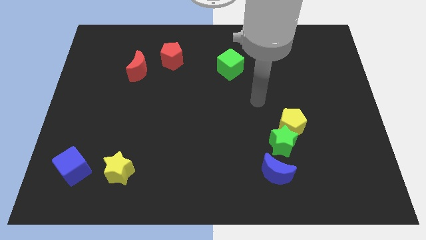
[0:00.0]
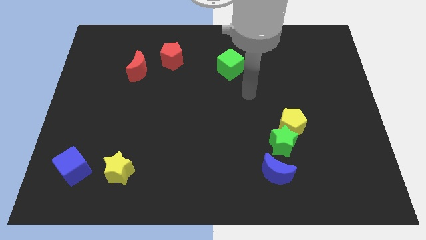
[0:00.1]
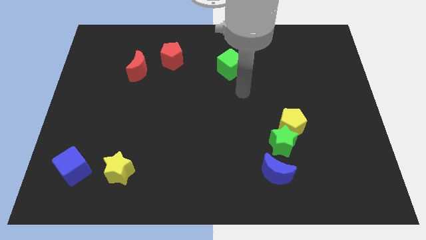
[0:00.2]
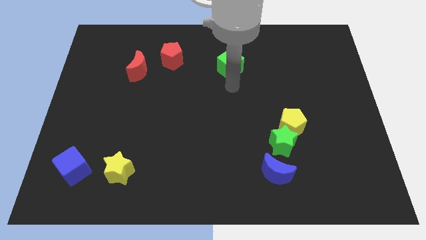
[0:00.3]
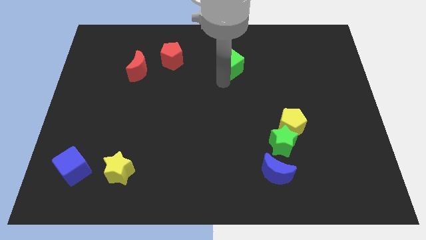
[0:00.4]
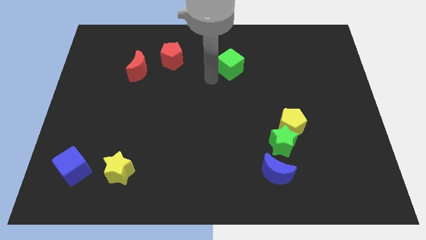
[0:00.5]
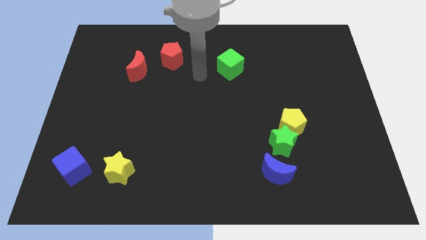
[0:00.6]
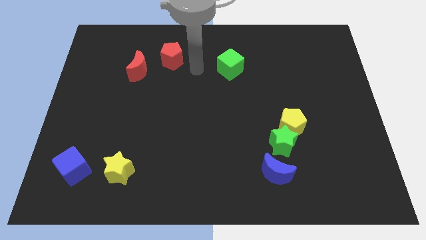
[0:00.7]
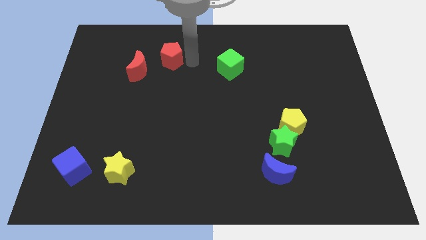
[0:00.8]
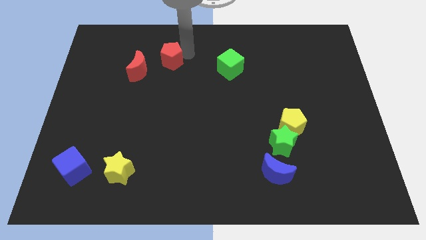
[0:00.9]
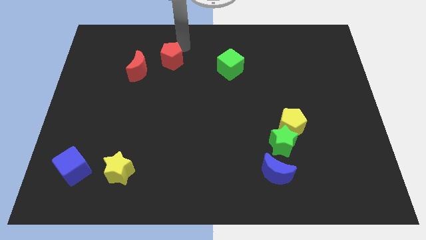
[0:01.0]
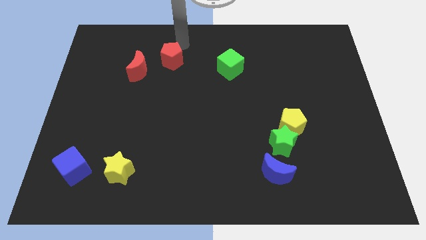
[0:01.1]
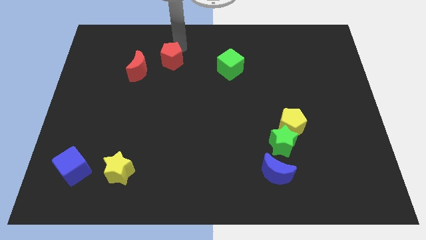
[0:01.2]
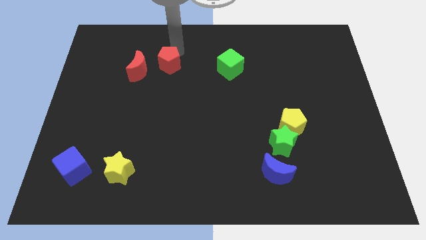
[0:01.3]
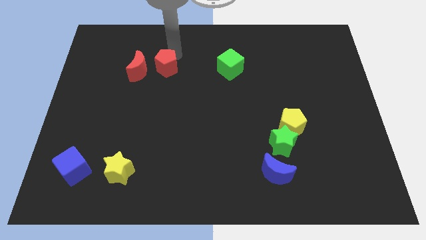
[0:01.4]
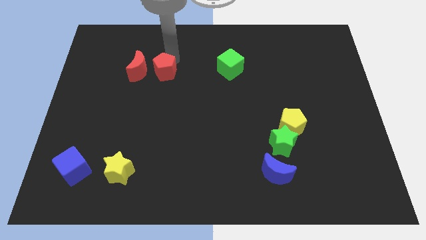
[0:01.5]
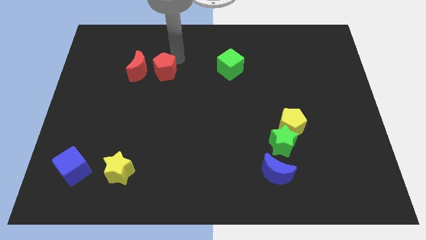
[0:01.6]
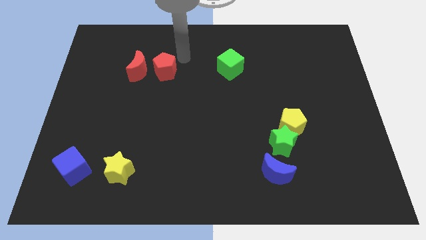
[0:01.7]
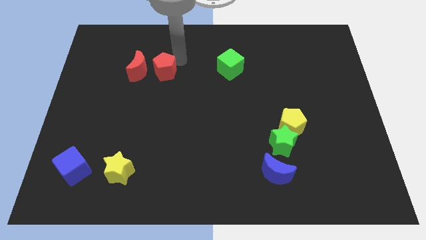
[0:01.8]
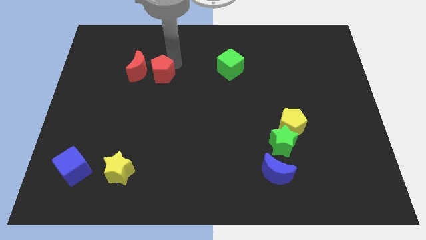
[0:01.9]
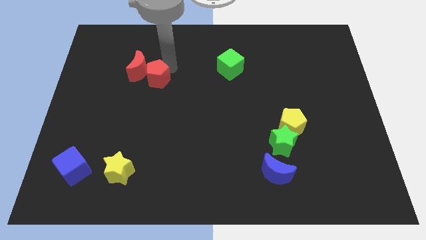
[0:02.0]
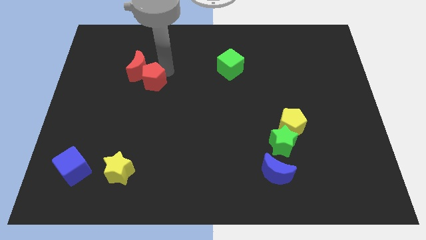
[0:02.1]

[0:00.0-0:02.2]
slightly slide the red pentagon downwards and then to the left

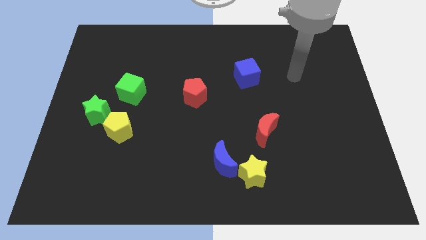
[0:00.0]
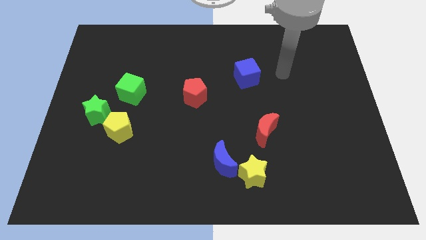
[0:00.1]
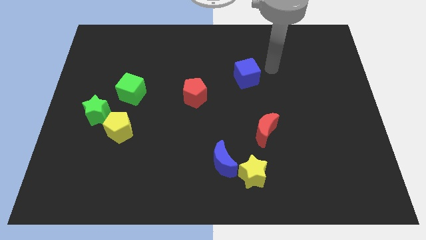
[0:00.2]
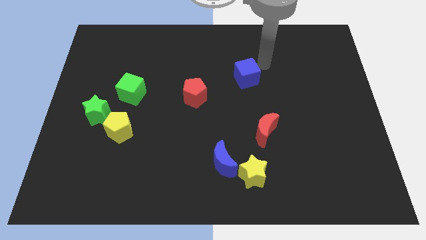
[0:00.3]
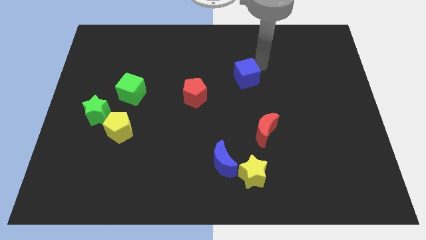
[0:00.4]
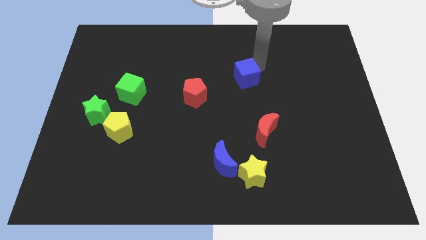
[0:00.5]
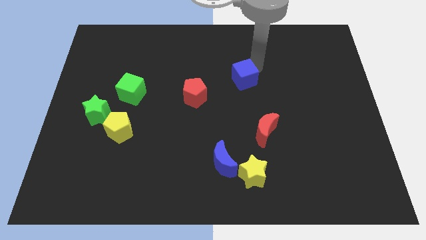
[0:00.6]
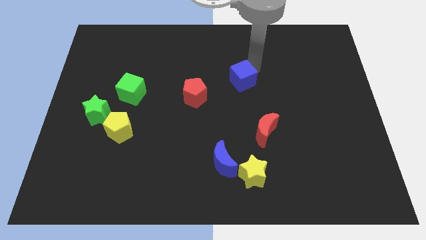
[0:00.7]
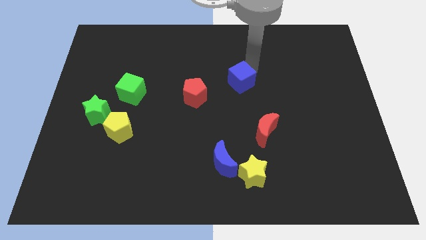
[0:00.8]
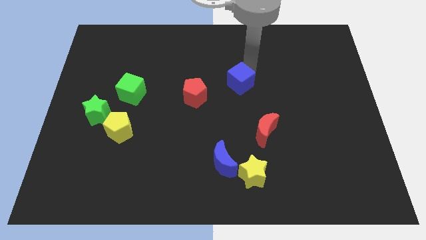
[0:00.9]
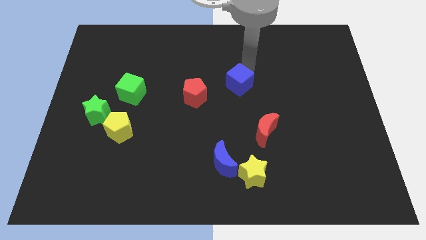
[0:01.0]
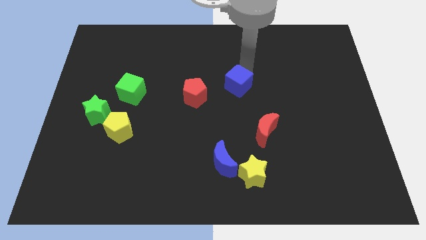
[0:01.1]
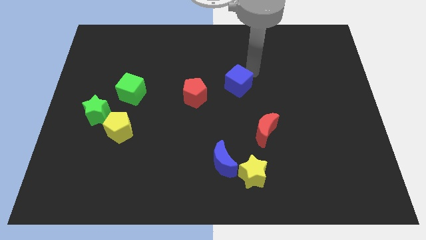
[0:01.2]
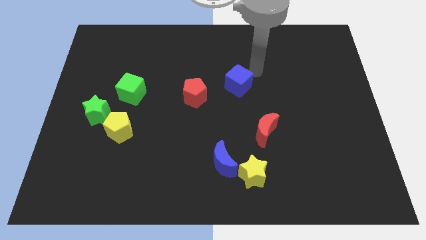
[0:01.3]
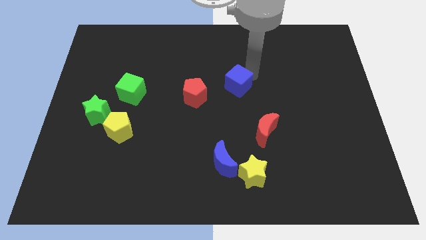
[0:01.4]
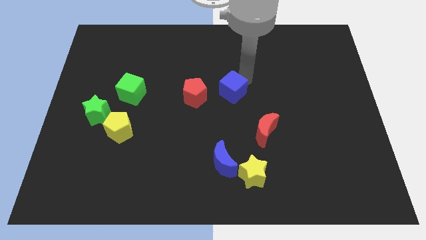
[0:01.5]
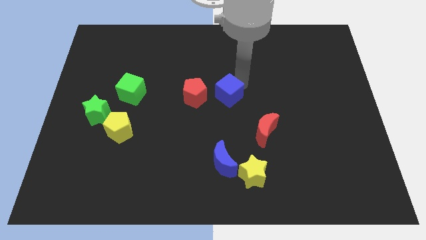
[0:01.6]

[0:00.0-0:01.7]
move the blue cube down and then left somewhat

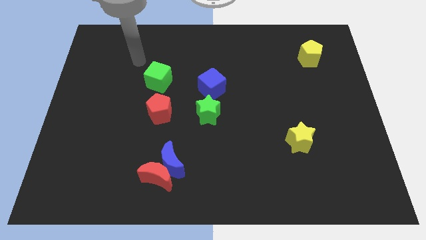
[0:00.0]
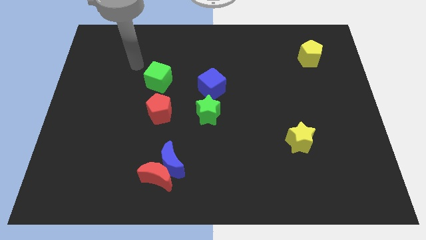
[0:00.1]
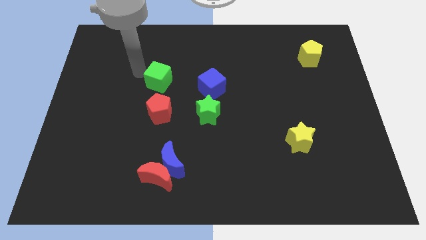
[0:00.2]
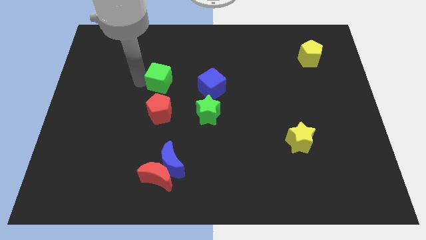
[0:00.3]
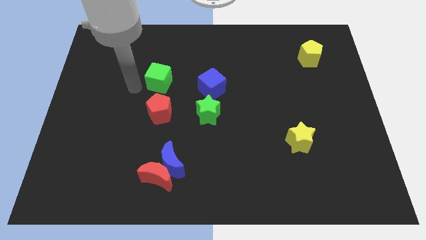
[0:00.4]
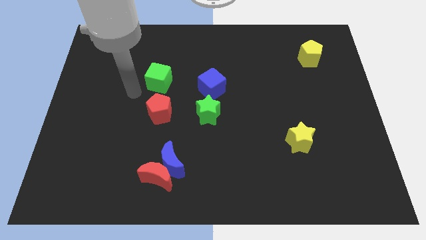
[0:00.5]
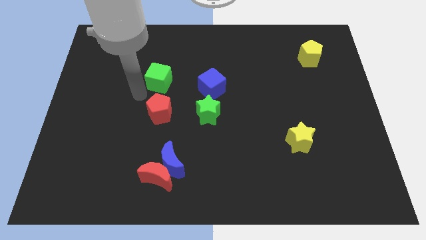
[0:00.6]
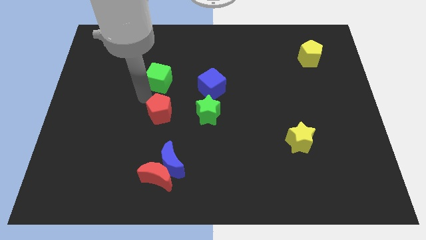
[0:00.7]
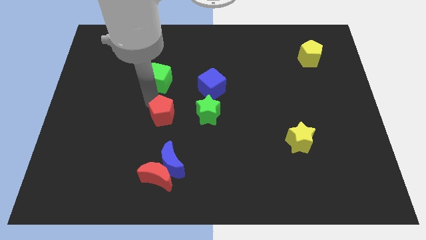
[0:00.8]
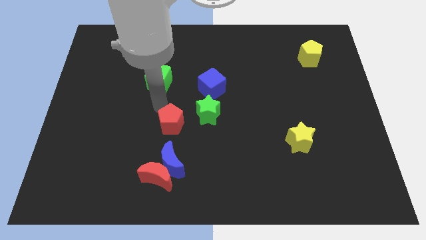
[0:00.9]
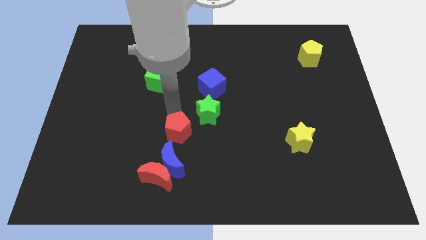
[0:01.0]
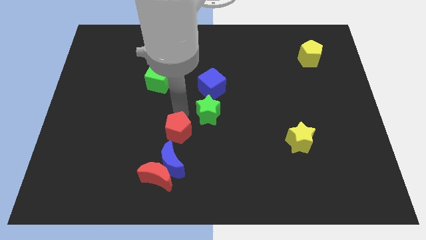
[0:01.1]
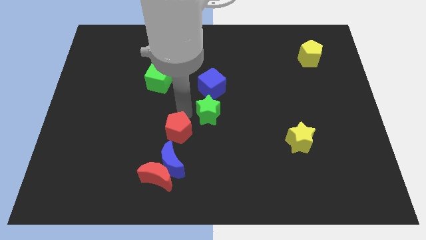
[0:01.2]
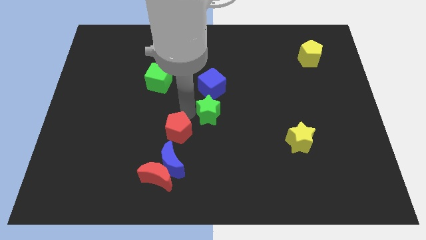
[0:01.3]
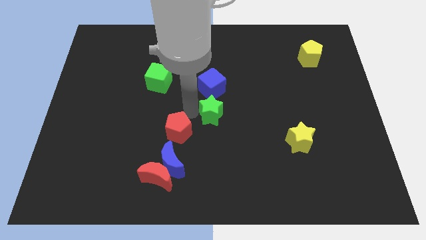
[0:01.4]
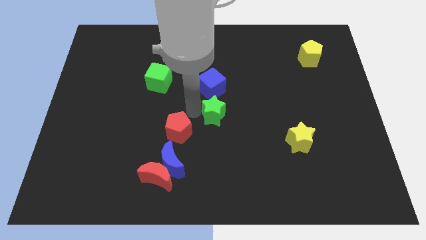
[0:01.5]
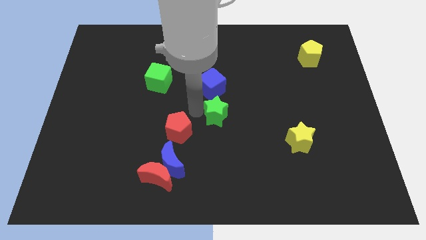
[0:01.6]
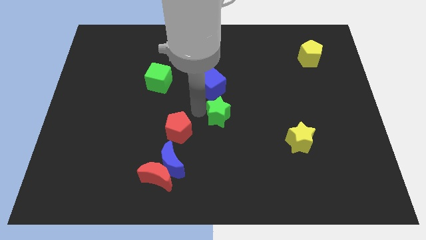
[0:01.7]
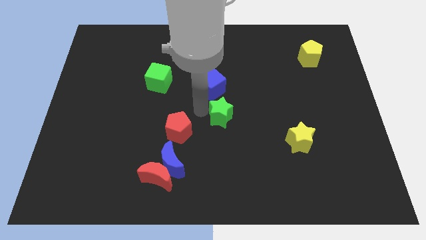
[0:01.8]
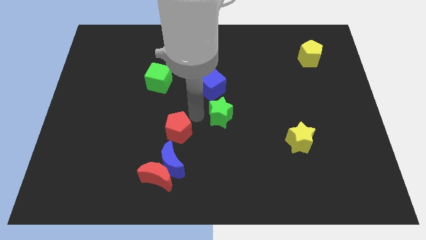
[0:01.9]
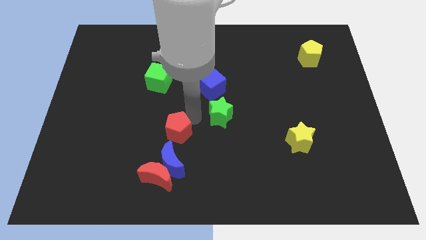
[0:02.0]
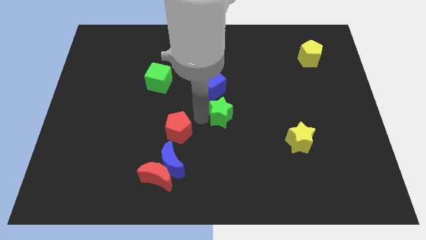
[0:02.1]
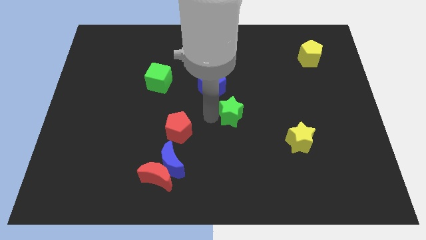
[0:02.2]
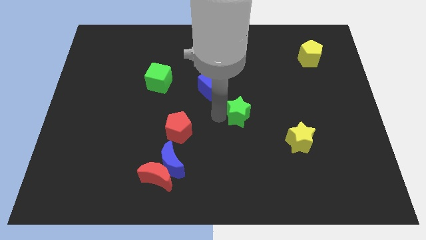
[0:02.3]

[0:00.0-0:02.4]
move the green star a little to the right

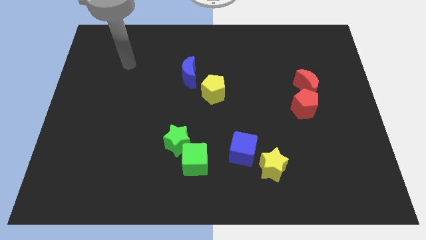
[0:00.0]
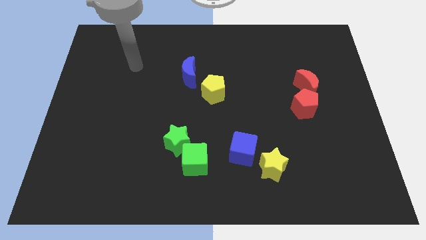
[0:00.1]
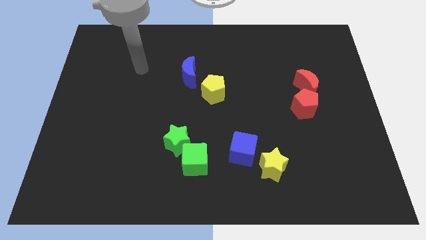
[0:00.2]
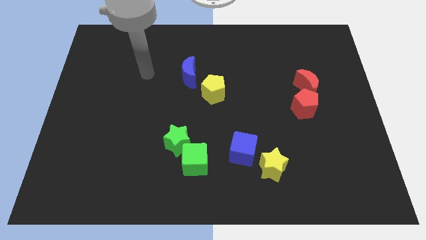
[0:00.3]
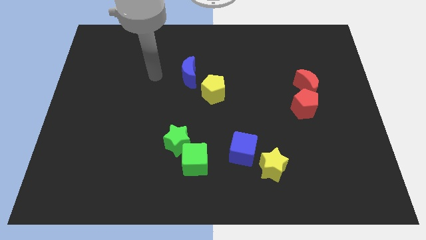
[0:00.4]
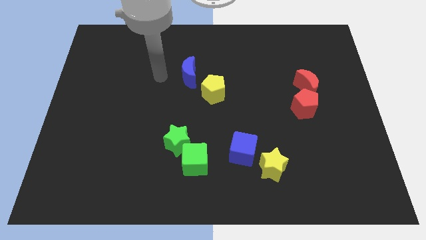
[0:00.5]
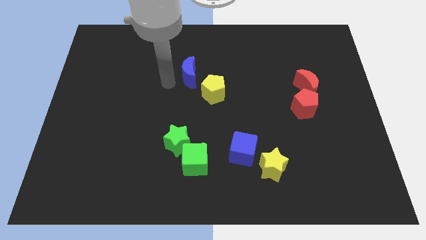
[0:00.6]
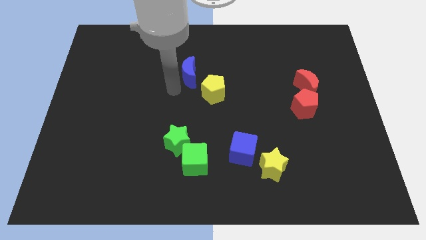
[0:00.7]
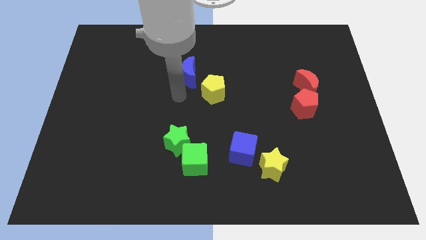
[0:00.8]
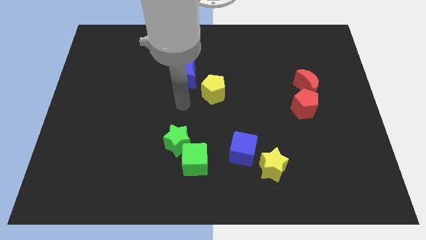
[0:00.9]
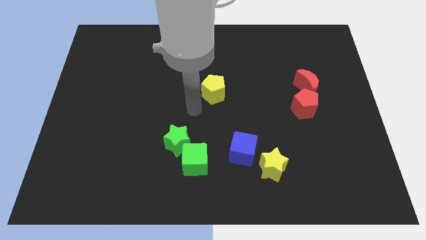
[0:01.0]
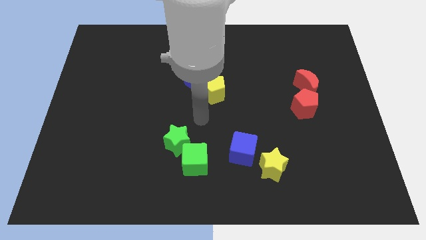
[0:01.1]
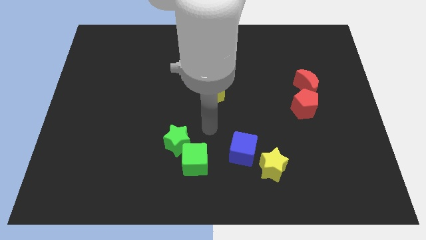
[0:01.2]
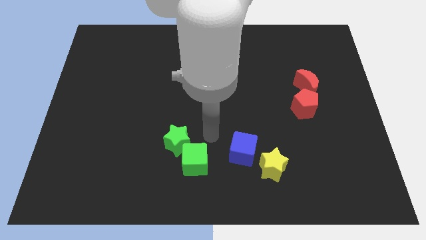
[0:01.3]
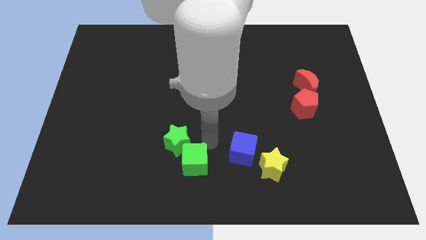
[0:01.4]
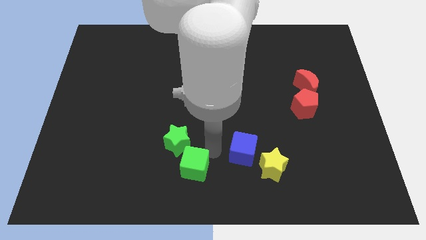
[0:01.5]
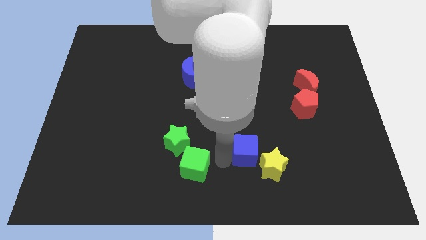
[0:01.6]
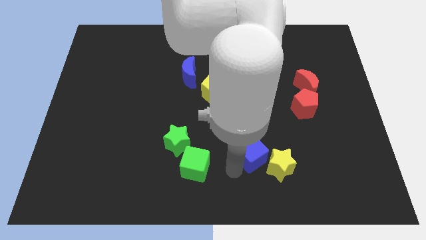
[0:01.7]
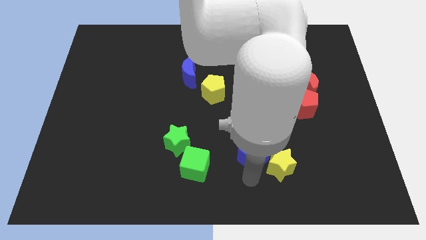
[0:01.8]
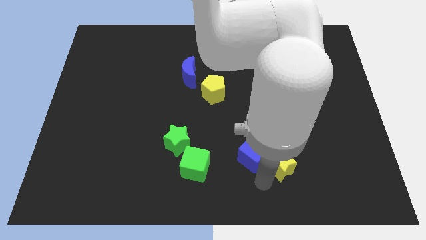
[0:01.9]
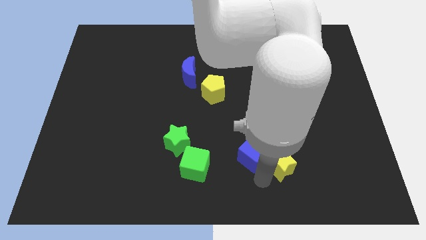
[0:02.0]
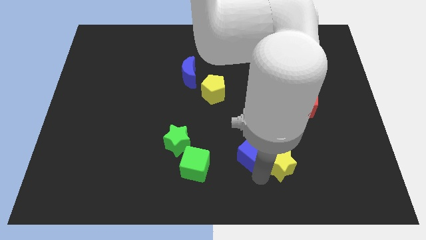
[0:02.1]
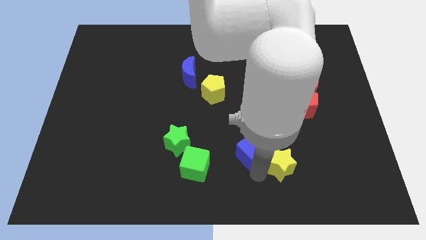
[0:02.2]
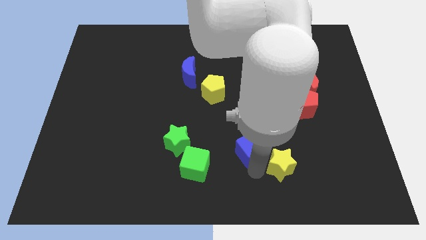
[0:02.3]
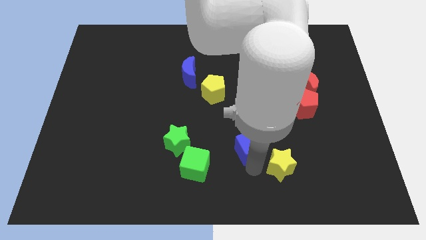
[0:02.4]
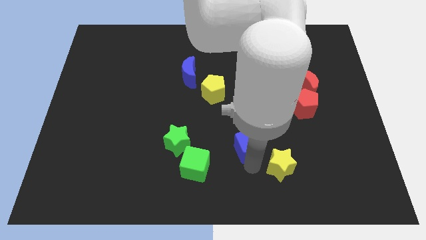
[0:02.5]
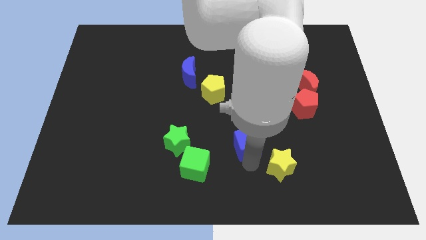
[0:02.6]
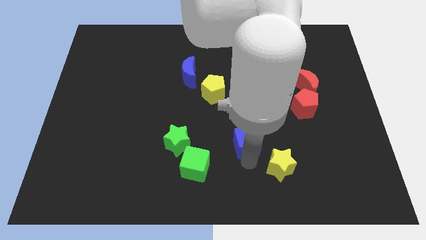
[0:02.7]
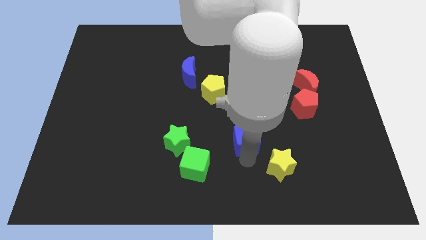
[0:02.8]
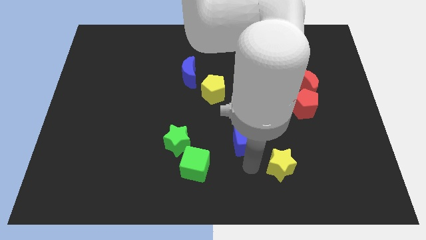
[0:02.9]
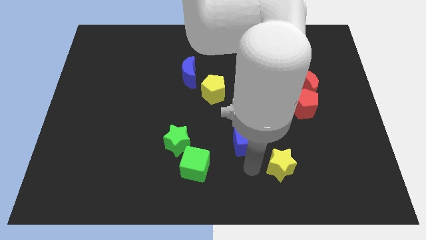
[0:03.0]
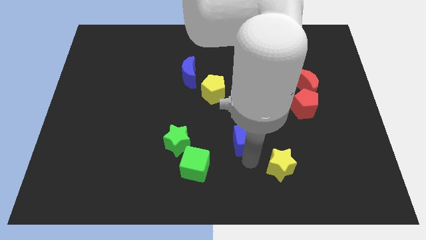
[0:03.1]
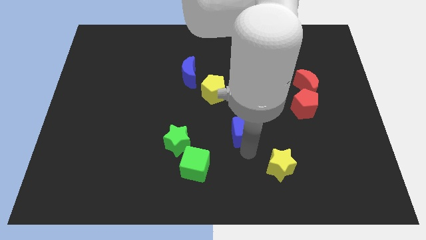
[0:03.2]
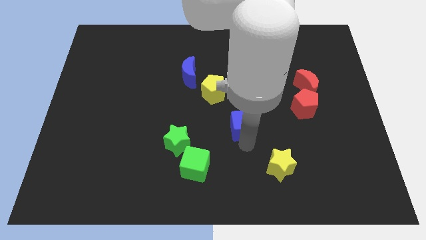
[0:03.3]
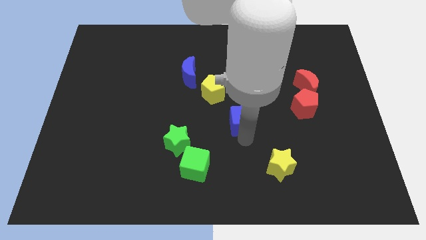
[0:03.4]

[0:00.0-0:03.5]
slightly push the blue cube upwards
